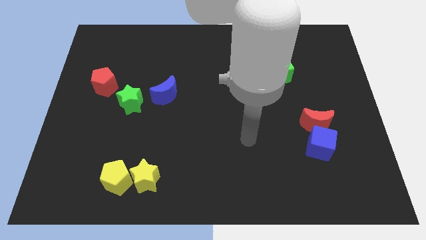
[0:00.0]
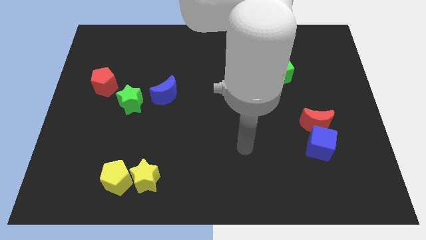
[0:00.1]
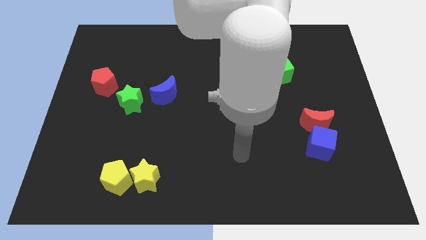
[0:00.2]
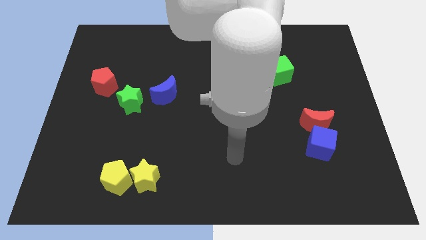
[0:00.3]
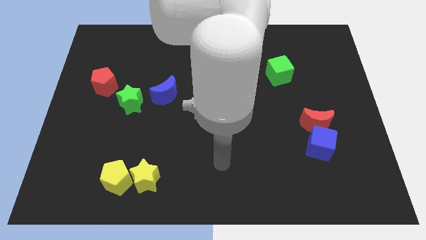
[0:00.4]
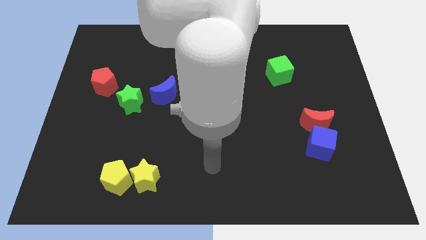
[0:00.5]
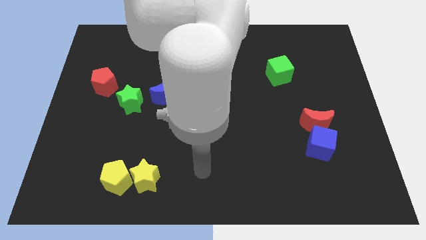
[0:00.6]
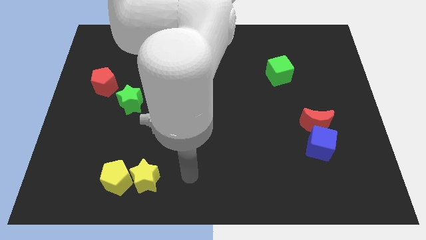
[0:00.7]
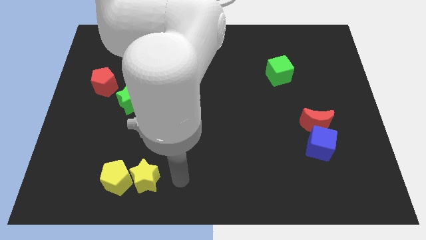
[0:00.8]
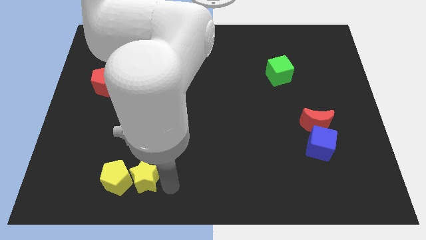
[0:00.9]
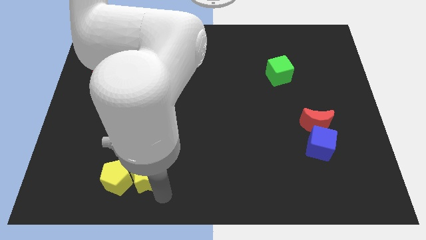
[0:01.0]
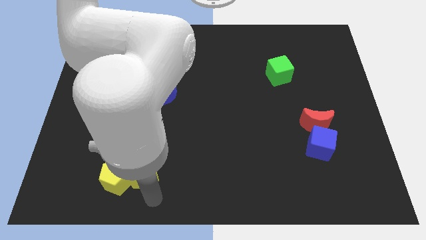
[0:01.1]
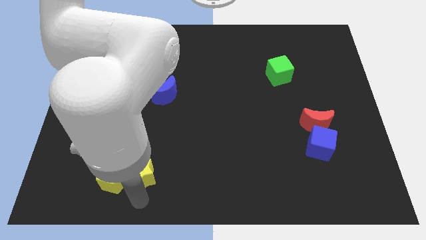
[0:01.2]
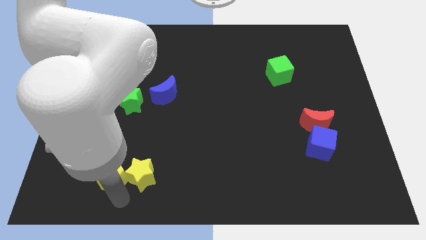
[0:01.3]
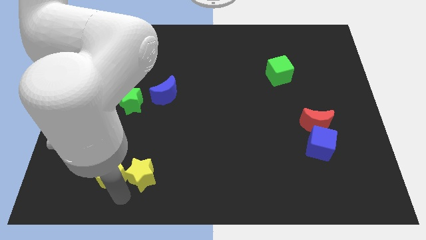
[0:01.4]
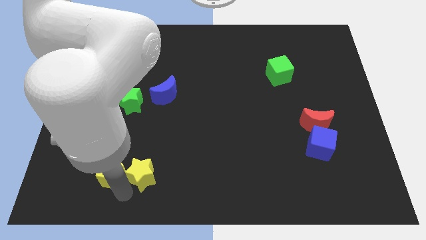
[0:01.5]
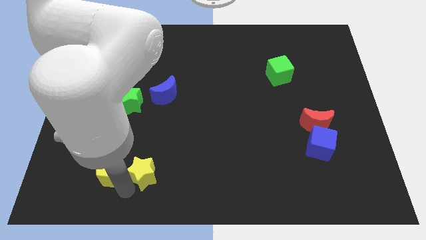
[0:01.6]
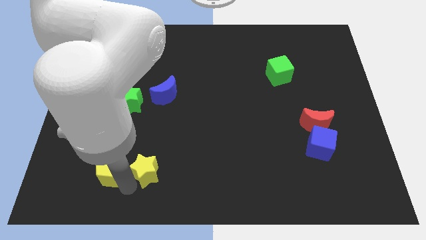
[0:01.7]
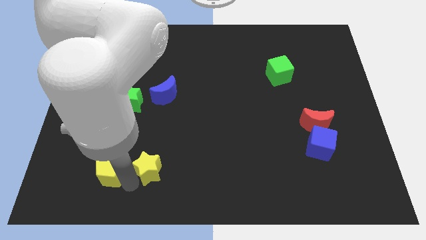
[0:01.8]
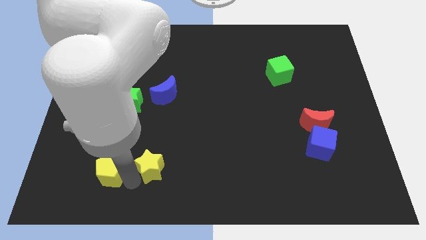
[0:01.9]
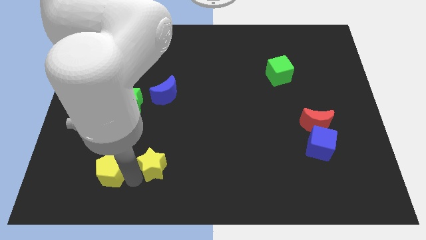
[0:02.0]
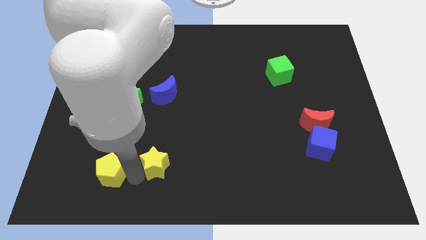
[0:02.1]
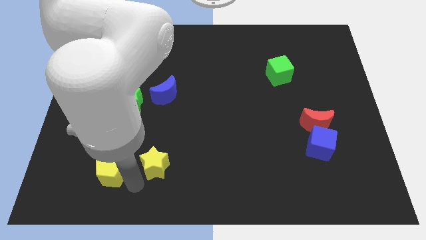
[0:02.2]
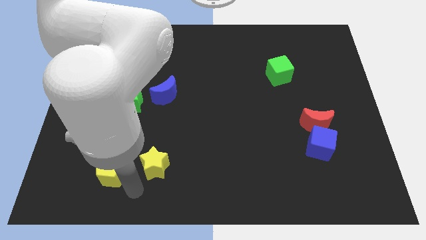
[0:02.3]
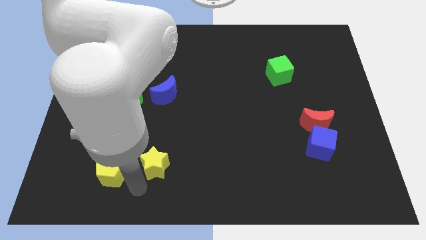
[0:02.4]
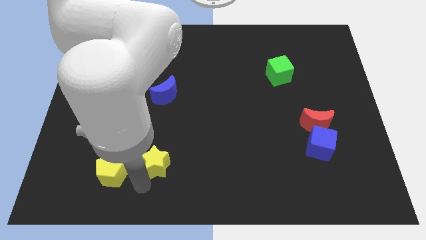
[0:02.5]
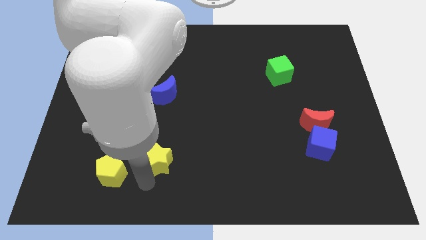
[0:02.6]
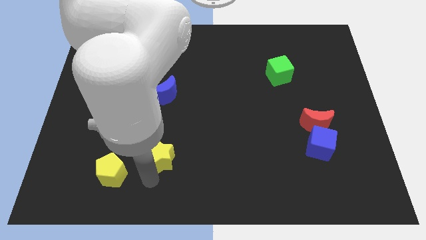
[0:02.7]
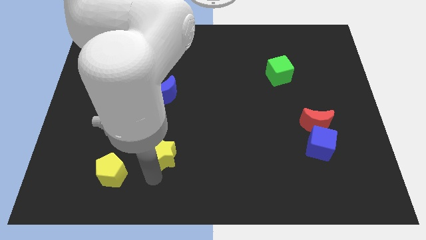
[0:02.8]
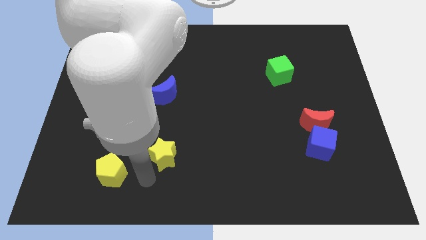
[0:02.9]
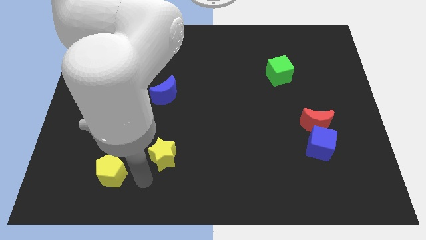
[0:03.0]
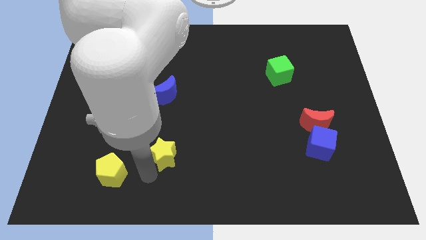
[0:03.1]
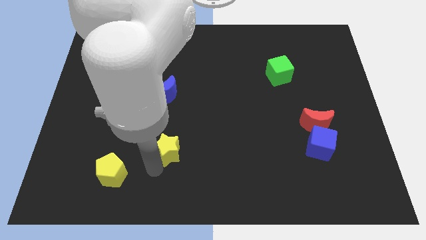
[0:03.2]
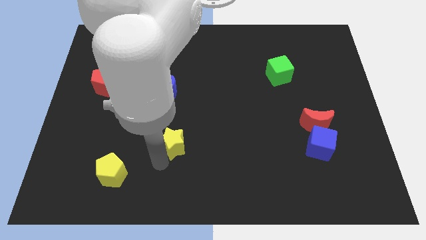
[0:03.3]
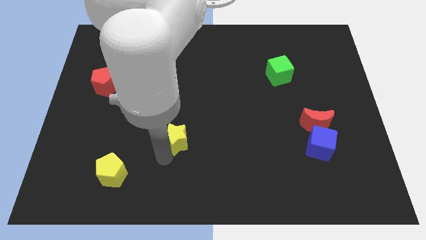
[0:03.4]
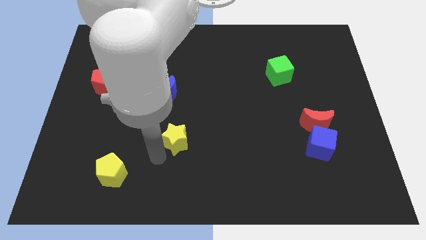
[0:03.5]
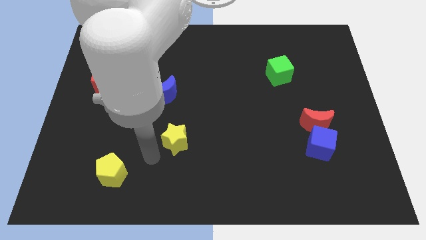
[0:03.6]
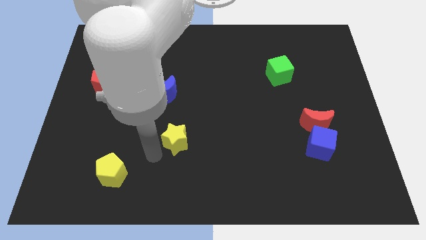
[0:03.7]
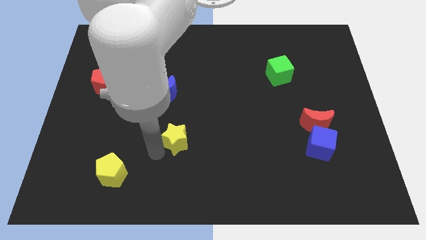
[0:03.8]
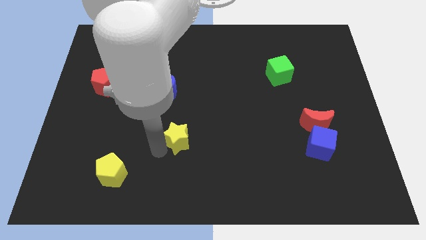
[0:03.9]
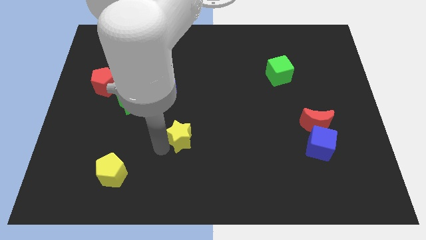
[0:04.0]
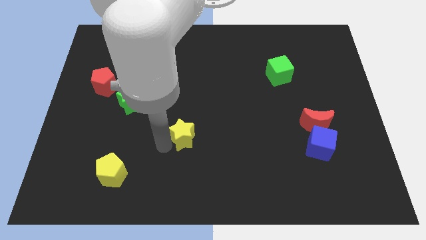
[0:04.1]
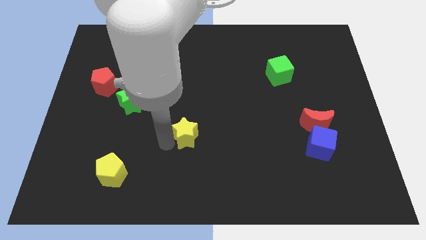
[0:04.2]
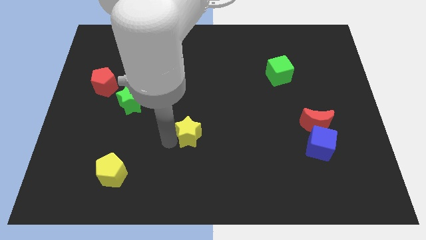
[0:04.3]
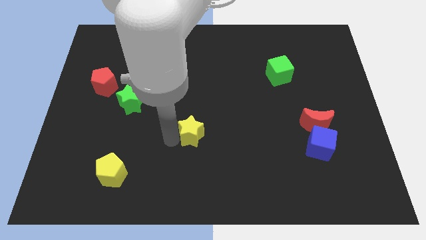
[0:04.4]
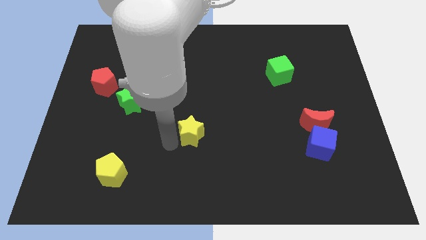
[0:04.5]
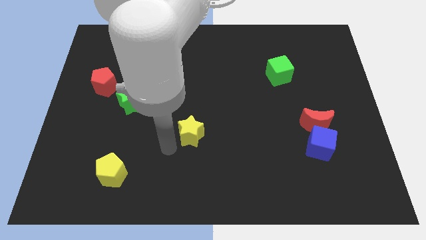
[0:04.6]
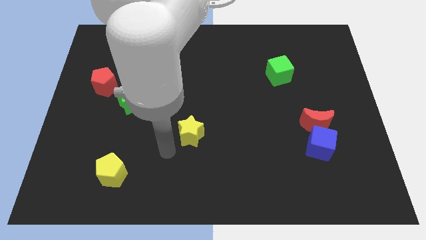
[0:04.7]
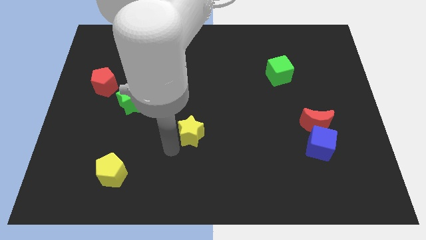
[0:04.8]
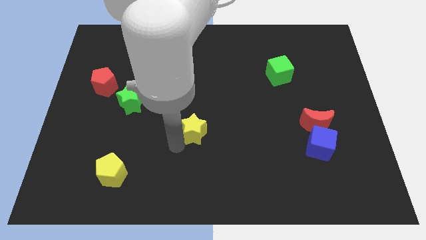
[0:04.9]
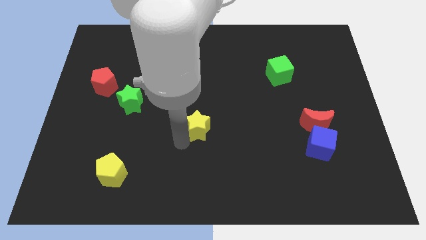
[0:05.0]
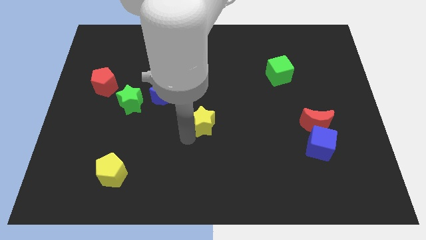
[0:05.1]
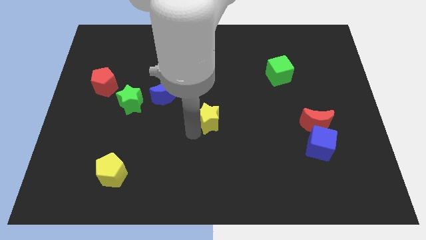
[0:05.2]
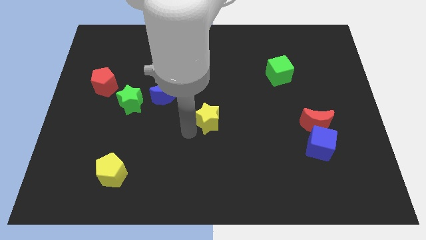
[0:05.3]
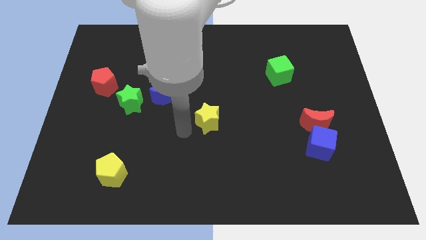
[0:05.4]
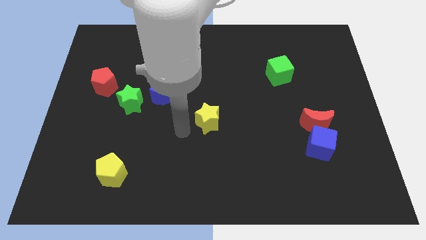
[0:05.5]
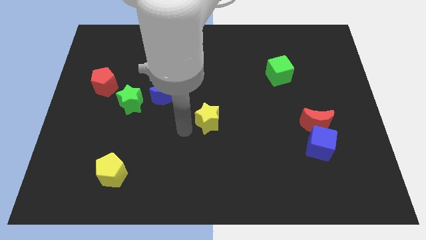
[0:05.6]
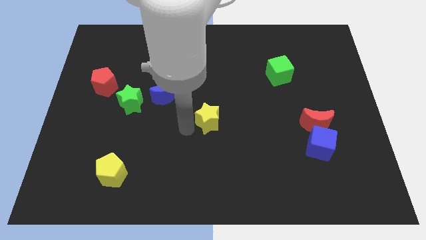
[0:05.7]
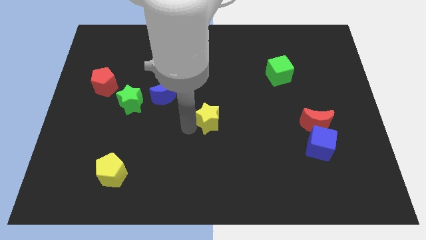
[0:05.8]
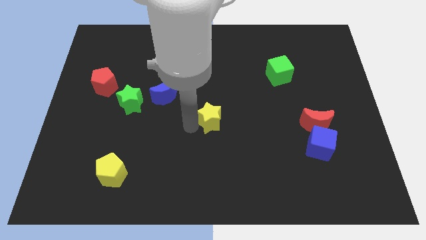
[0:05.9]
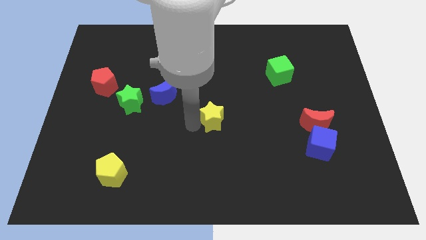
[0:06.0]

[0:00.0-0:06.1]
slide the yellow star upwards and to the right

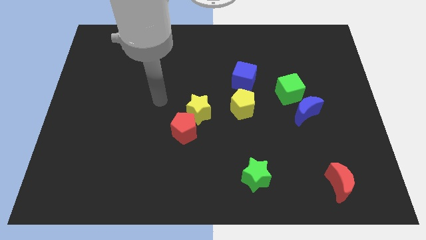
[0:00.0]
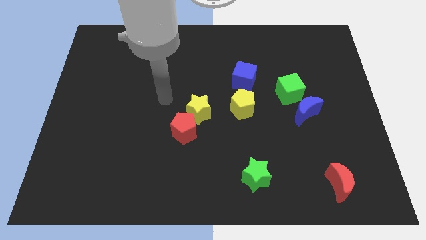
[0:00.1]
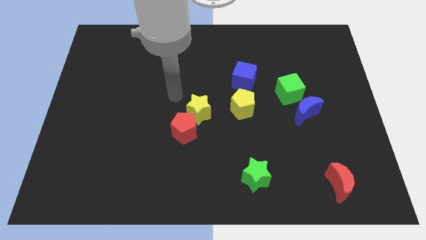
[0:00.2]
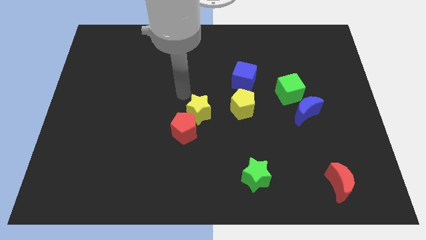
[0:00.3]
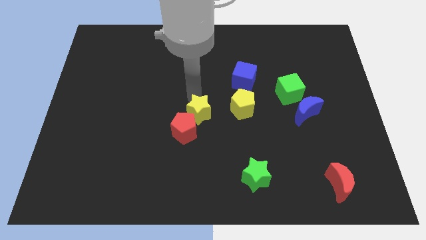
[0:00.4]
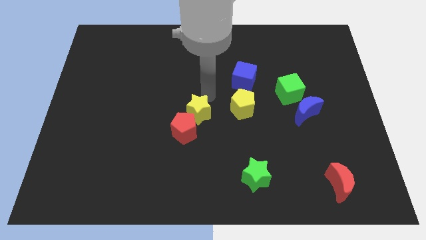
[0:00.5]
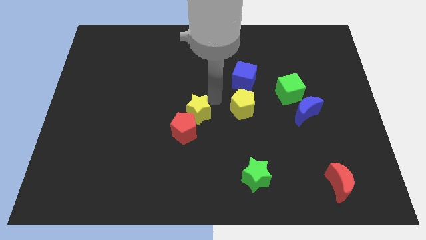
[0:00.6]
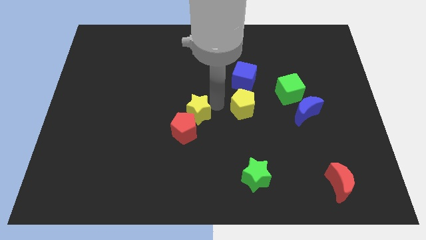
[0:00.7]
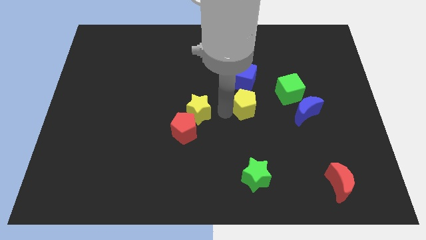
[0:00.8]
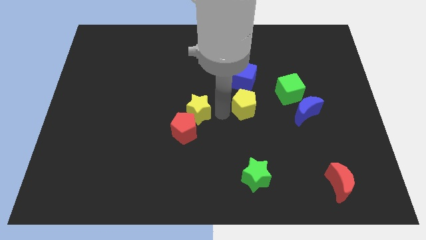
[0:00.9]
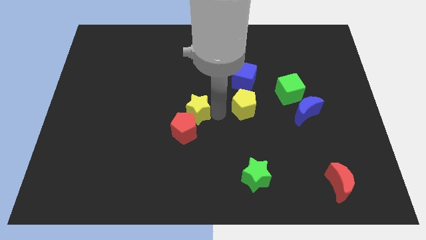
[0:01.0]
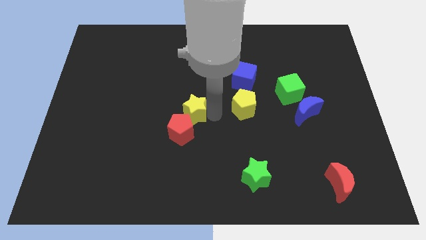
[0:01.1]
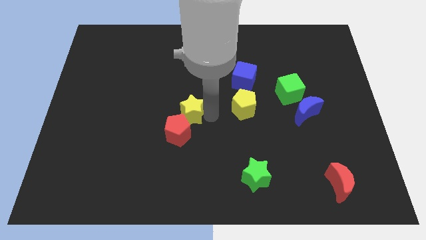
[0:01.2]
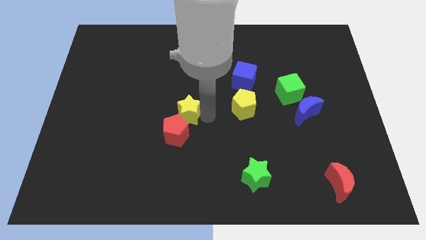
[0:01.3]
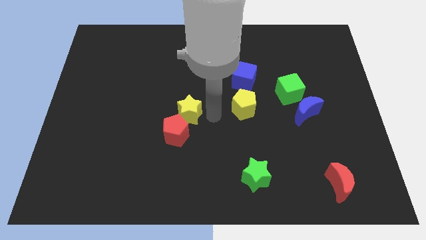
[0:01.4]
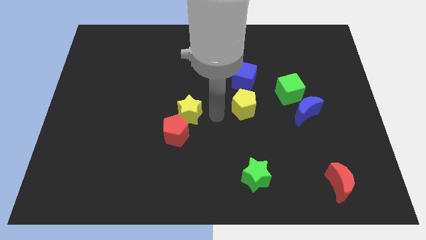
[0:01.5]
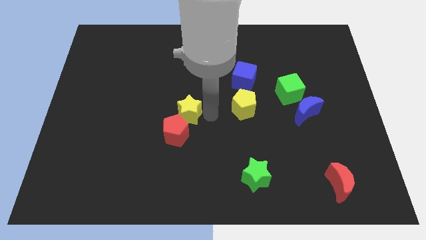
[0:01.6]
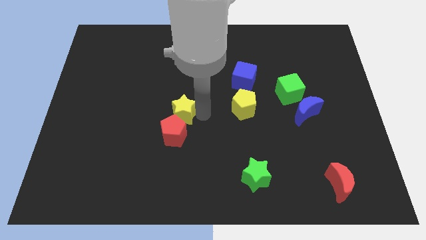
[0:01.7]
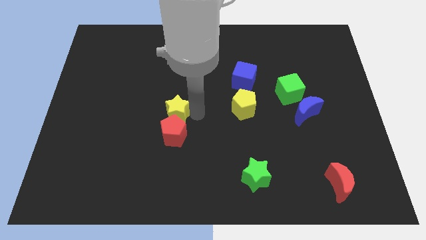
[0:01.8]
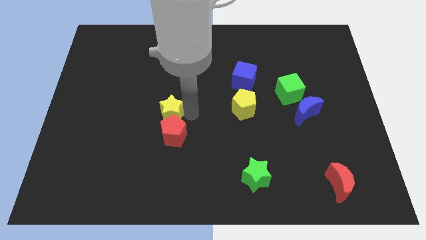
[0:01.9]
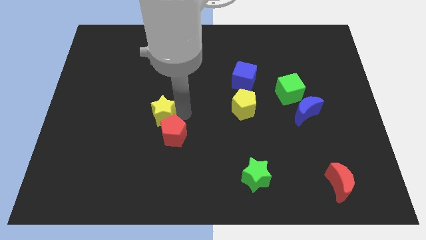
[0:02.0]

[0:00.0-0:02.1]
move the yellow star somewhat to the left
